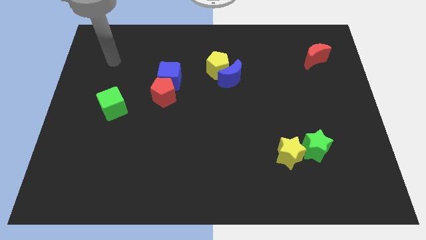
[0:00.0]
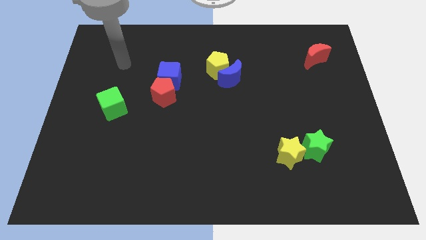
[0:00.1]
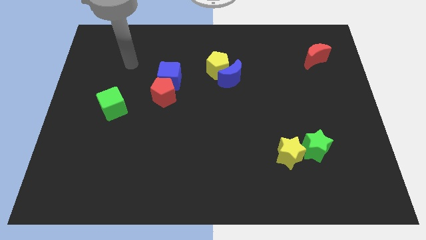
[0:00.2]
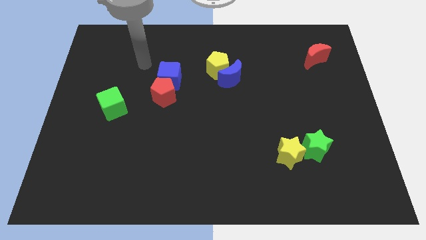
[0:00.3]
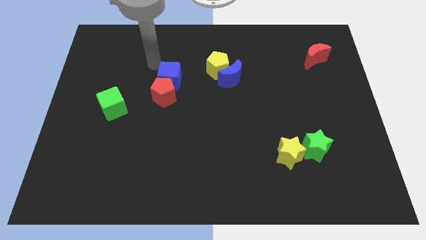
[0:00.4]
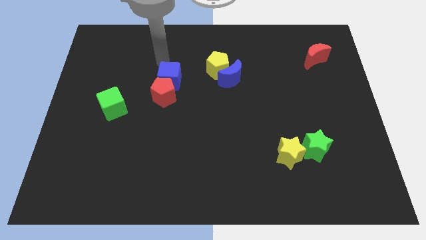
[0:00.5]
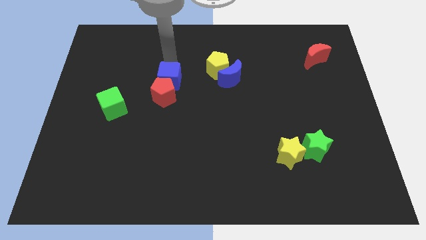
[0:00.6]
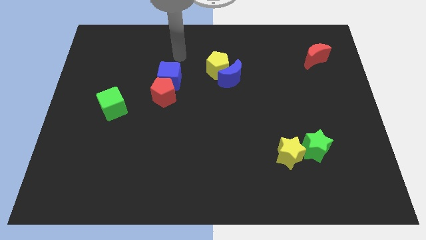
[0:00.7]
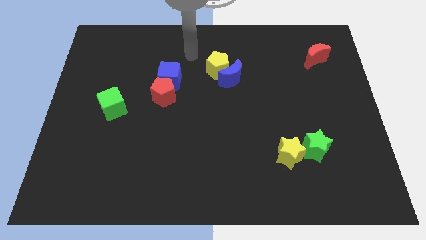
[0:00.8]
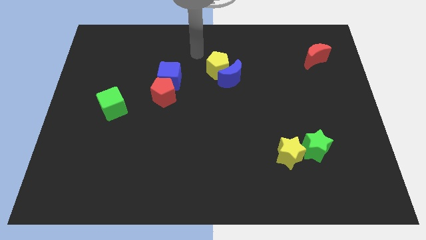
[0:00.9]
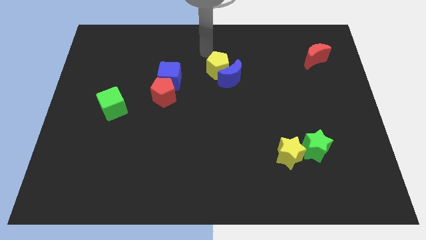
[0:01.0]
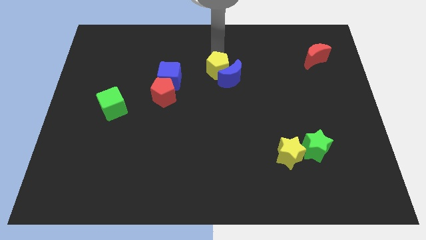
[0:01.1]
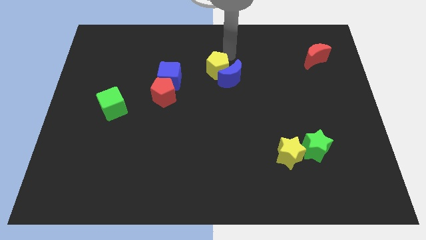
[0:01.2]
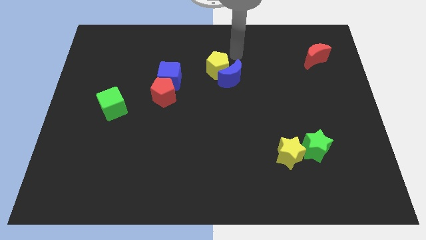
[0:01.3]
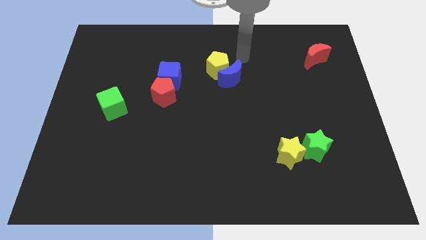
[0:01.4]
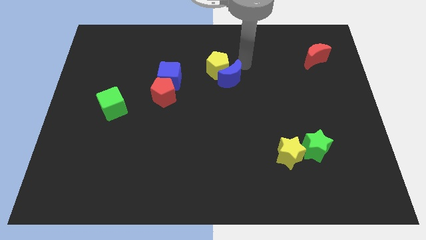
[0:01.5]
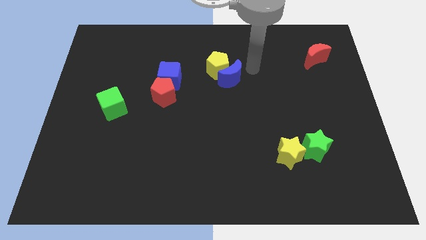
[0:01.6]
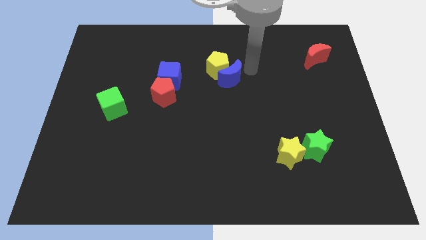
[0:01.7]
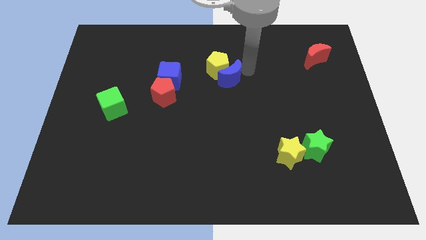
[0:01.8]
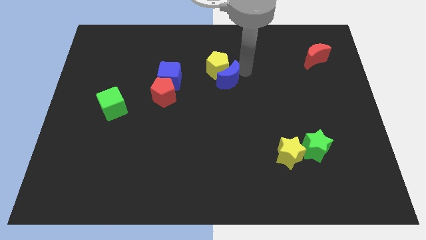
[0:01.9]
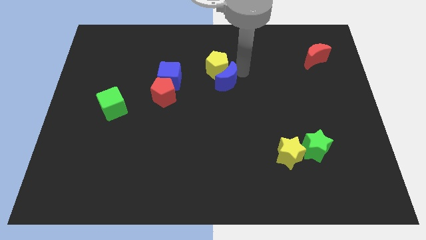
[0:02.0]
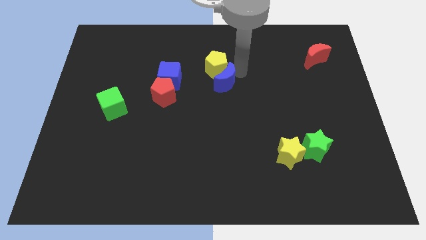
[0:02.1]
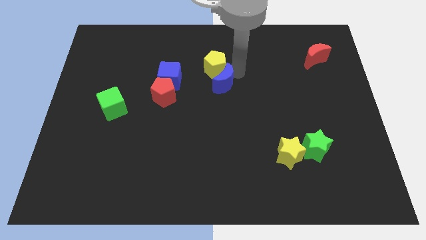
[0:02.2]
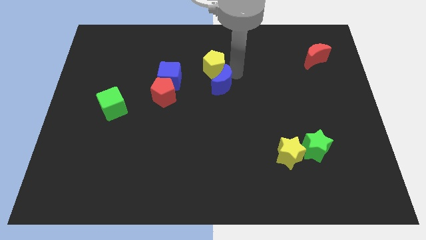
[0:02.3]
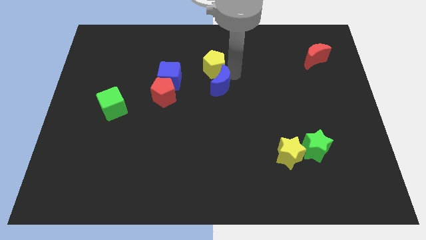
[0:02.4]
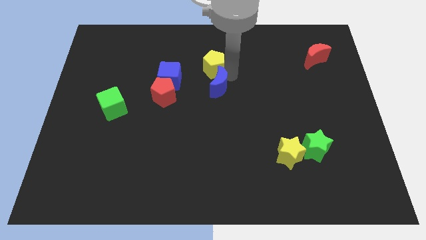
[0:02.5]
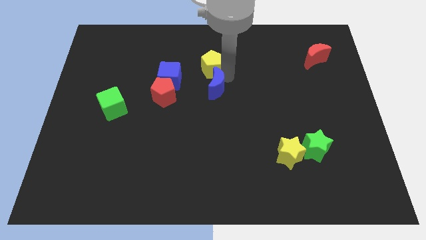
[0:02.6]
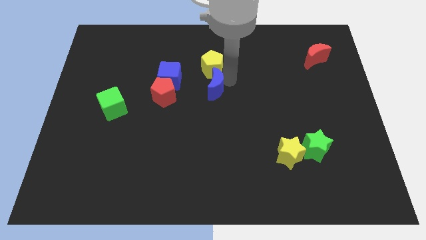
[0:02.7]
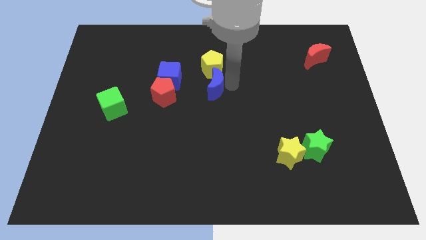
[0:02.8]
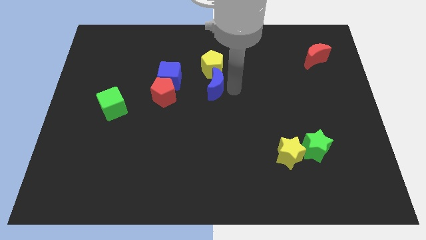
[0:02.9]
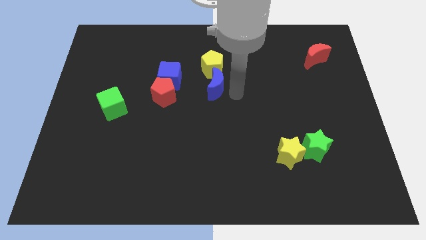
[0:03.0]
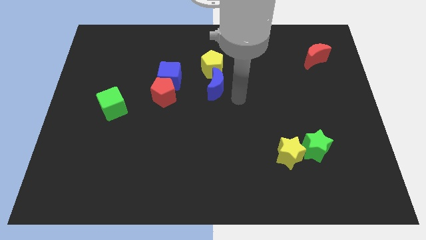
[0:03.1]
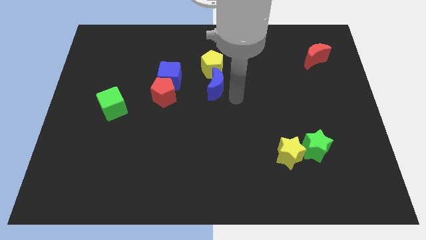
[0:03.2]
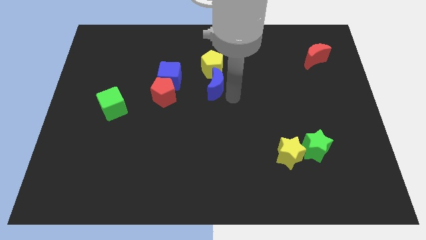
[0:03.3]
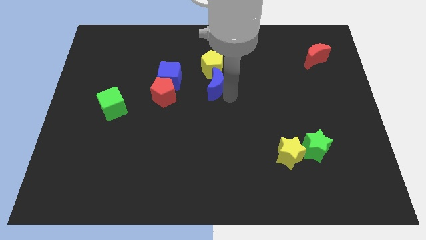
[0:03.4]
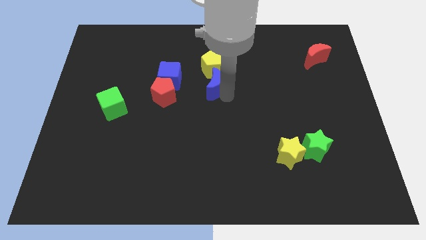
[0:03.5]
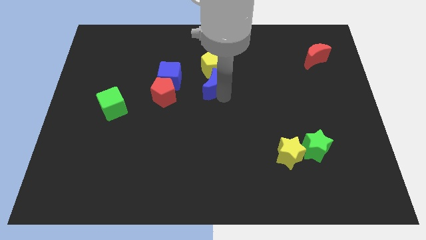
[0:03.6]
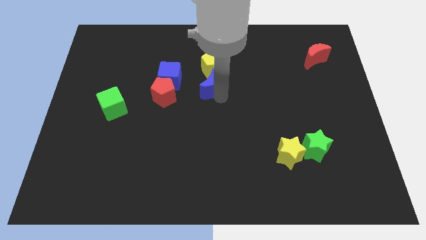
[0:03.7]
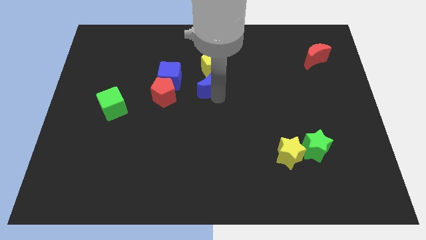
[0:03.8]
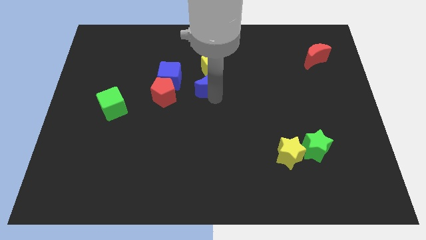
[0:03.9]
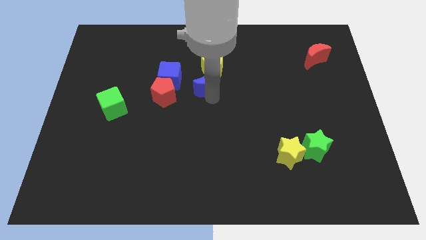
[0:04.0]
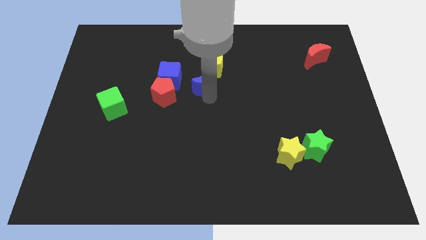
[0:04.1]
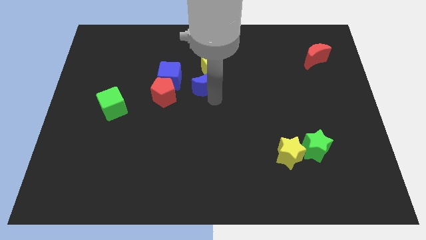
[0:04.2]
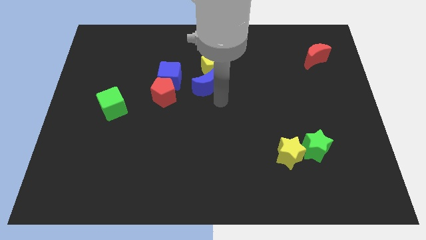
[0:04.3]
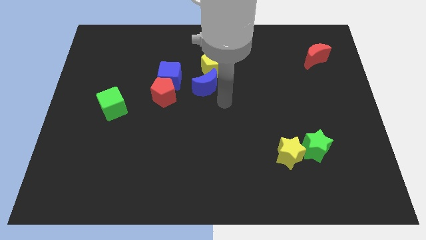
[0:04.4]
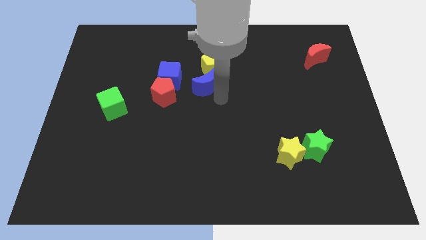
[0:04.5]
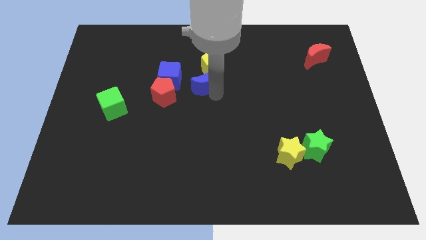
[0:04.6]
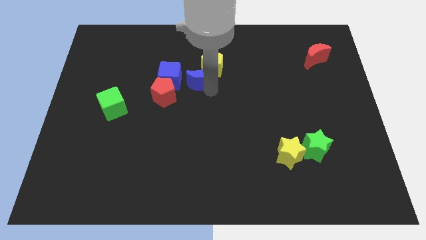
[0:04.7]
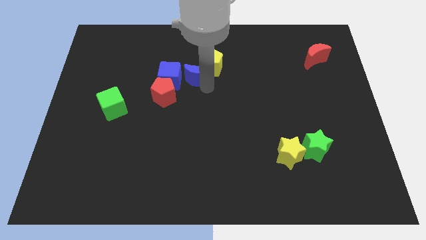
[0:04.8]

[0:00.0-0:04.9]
move the blue moon left of the yellow pentagon

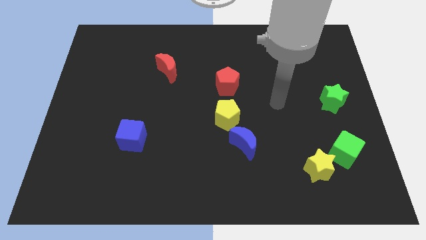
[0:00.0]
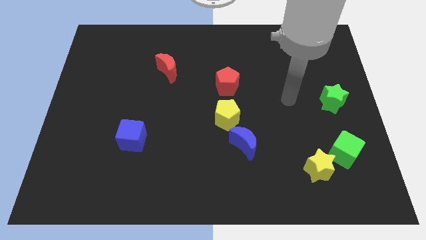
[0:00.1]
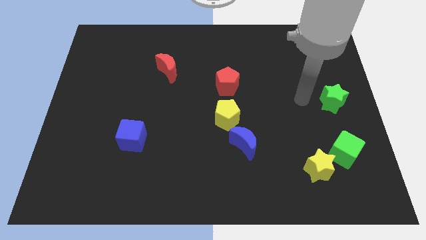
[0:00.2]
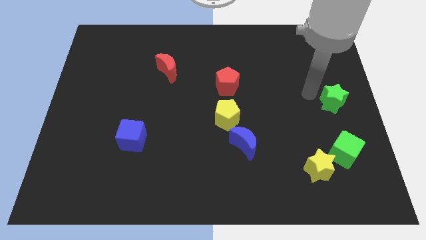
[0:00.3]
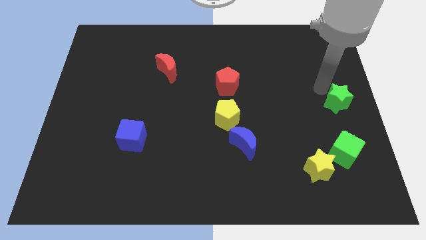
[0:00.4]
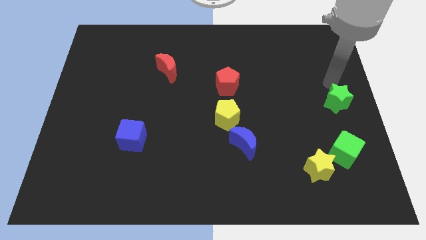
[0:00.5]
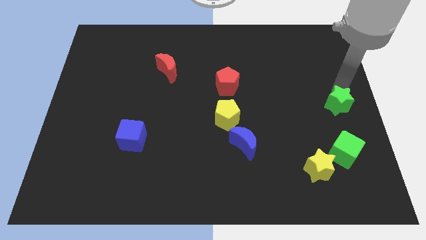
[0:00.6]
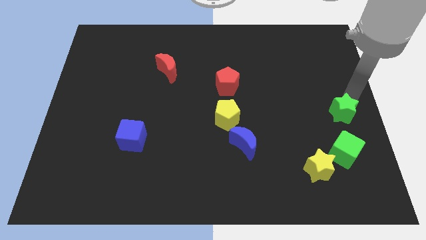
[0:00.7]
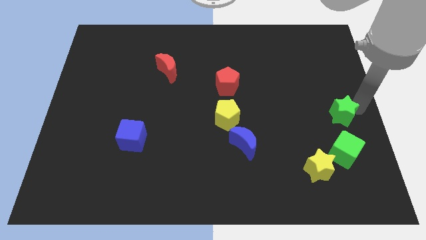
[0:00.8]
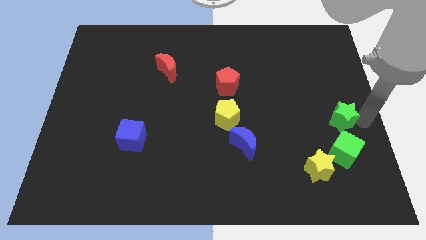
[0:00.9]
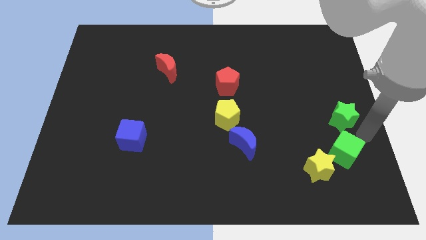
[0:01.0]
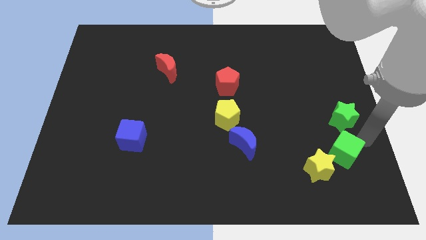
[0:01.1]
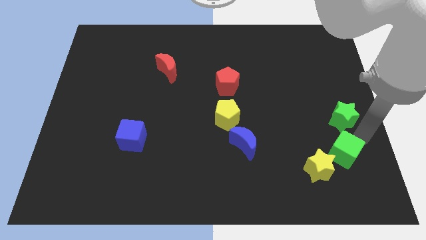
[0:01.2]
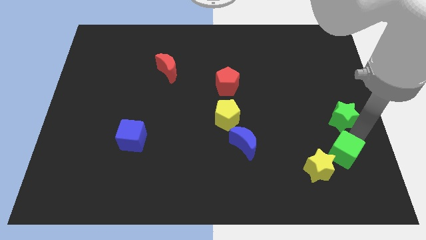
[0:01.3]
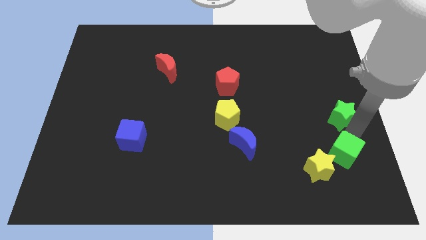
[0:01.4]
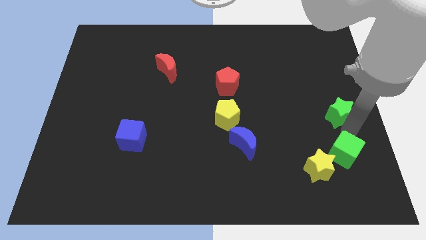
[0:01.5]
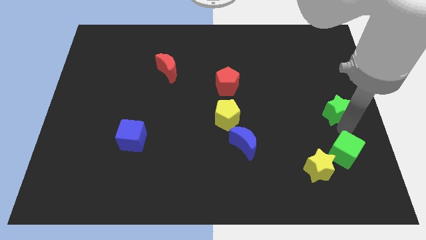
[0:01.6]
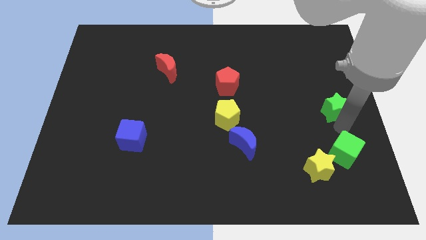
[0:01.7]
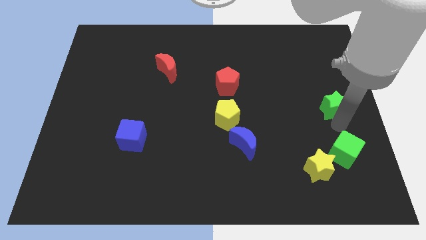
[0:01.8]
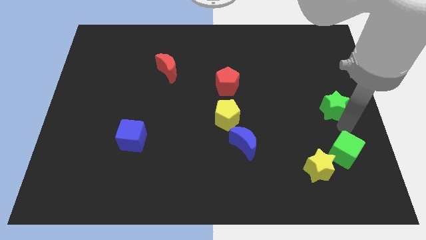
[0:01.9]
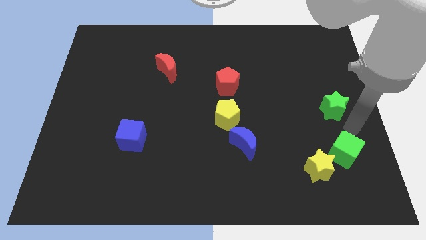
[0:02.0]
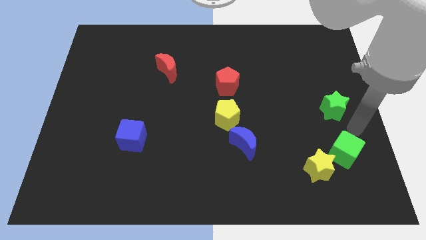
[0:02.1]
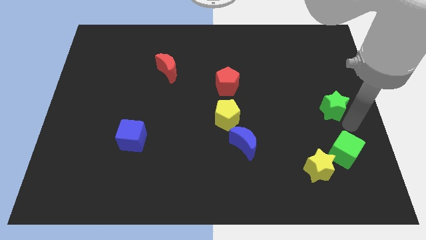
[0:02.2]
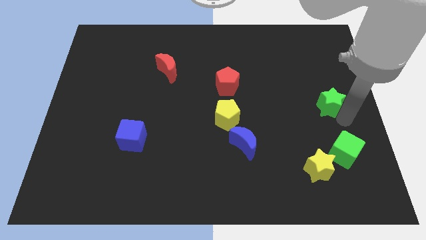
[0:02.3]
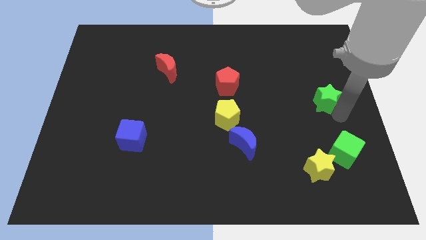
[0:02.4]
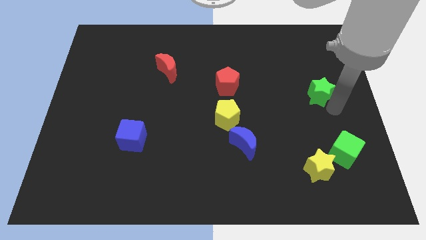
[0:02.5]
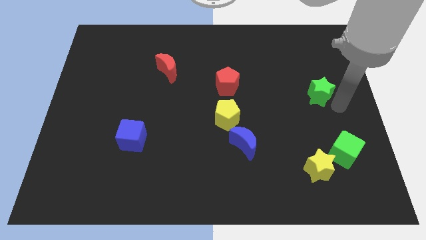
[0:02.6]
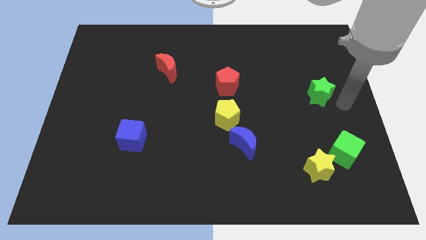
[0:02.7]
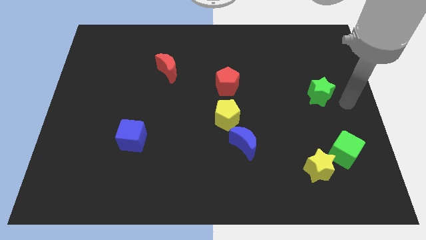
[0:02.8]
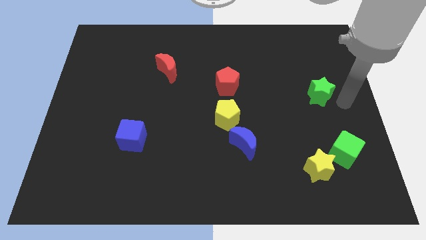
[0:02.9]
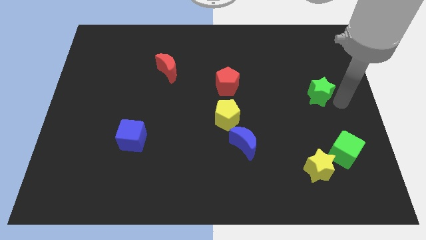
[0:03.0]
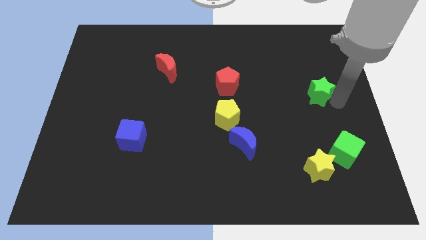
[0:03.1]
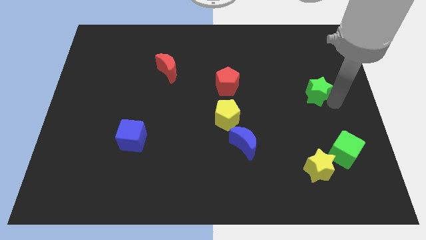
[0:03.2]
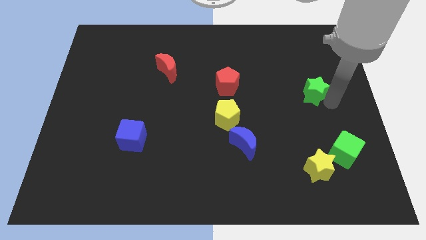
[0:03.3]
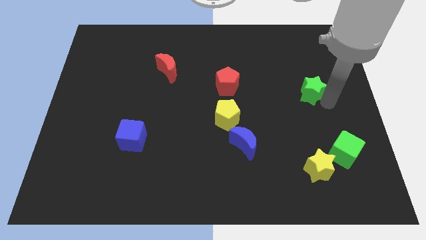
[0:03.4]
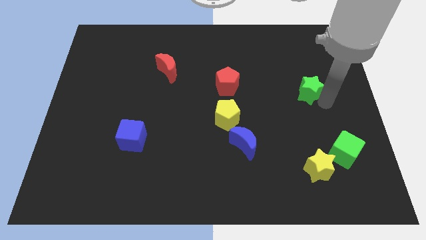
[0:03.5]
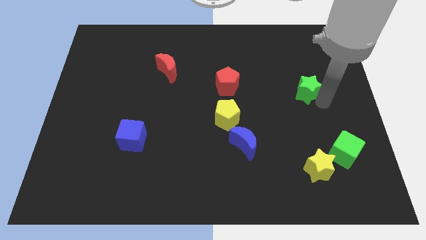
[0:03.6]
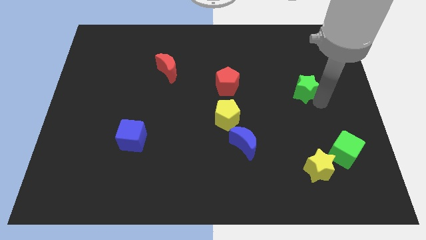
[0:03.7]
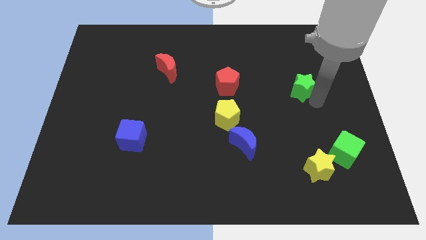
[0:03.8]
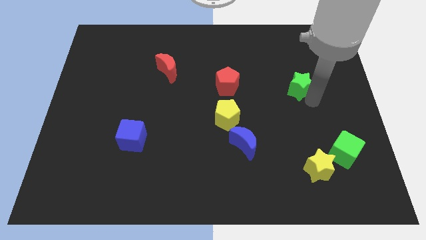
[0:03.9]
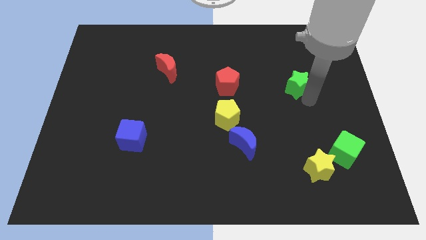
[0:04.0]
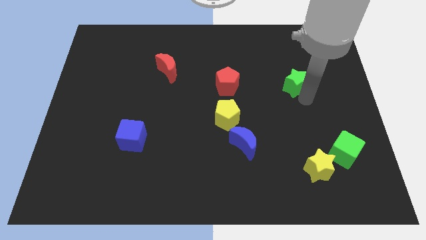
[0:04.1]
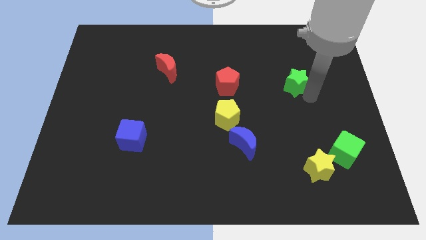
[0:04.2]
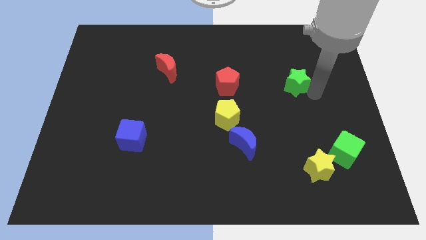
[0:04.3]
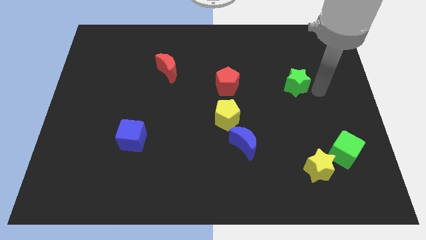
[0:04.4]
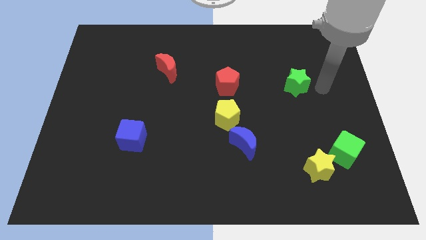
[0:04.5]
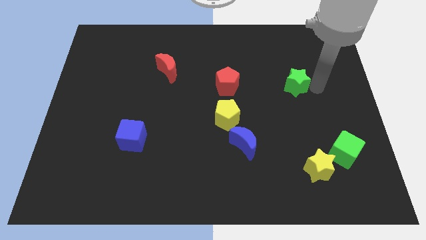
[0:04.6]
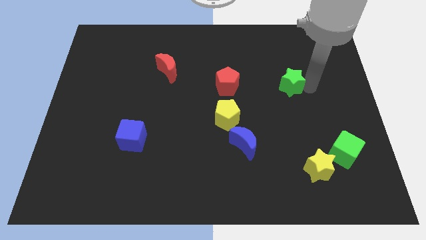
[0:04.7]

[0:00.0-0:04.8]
move the green star to the right side of the red pentagon
